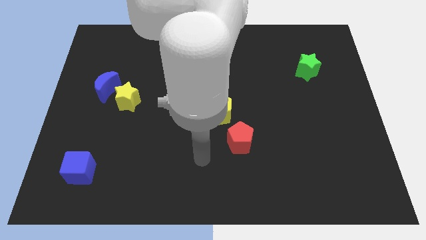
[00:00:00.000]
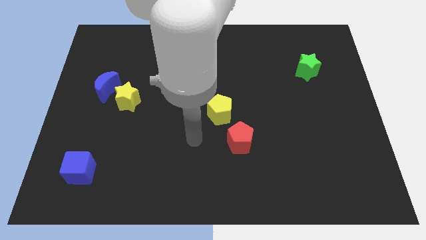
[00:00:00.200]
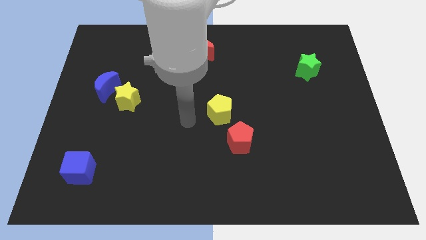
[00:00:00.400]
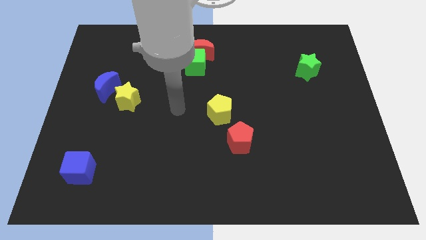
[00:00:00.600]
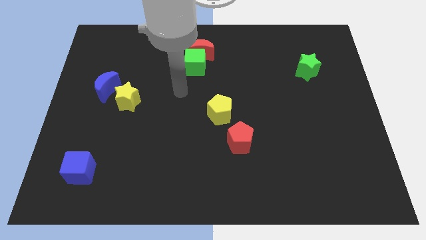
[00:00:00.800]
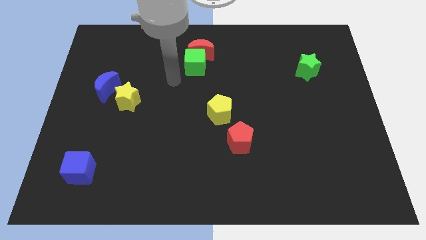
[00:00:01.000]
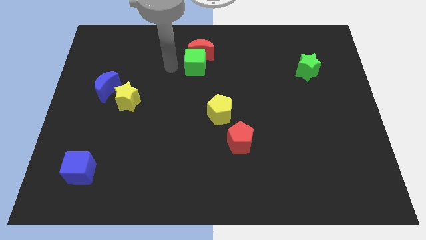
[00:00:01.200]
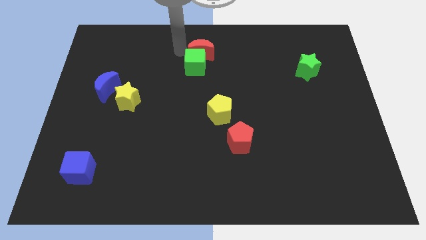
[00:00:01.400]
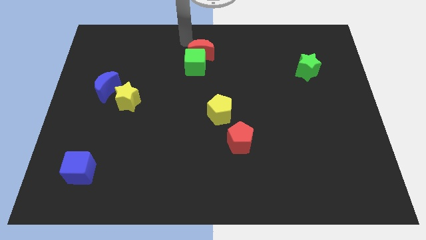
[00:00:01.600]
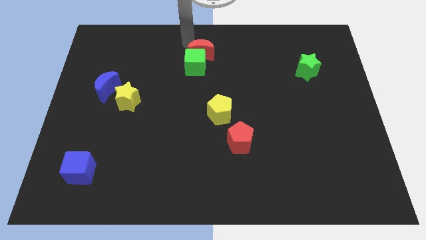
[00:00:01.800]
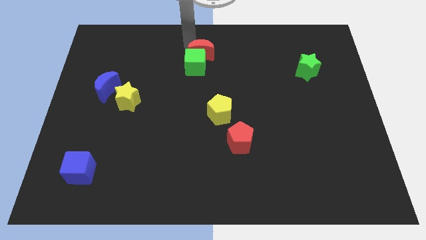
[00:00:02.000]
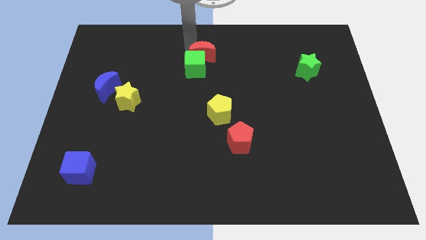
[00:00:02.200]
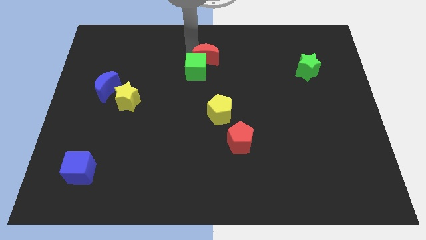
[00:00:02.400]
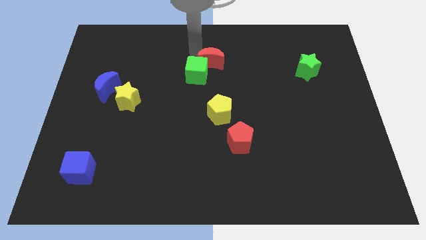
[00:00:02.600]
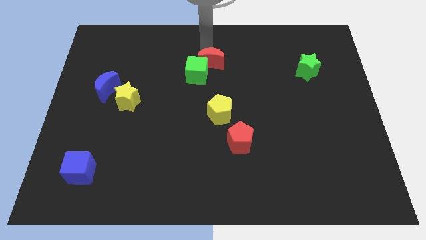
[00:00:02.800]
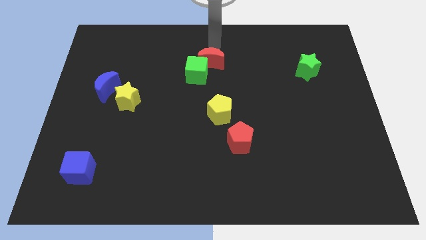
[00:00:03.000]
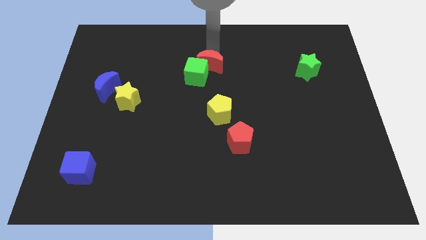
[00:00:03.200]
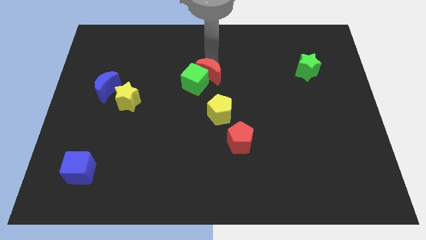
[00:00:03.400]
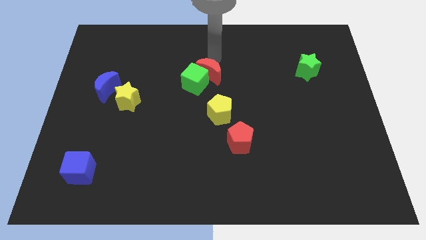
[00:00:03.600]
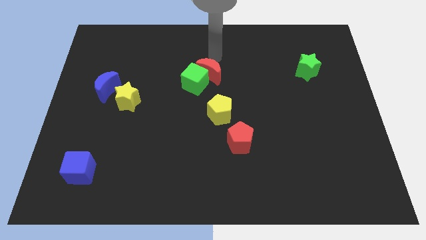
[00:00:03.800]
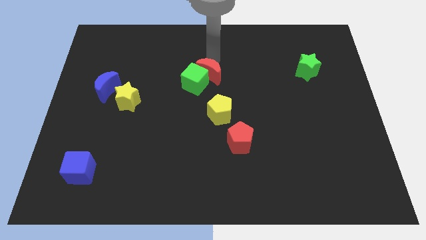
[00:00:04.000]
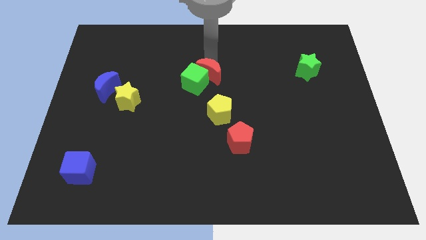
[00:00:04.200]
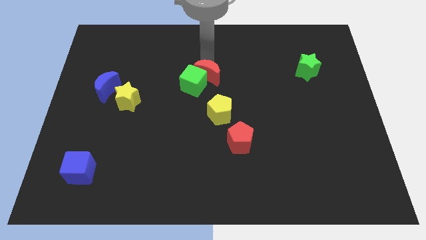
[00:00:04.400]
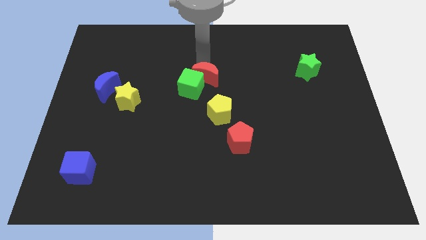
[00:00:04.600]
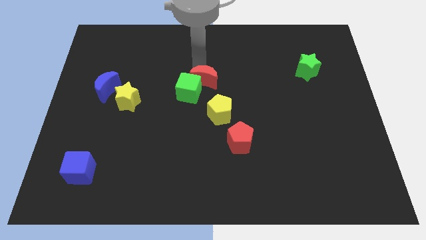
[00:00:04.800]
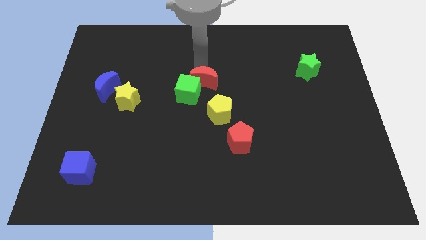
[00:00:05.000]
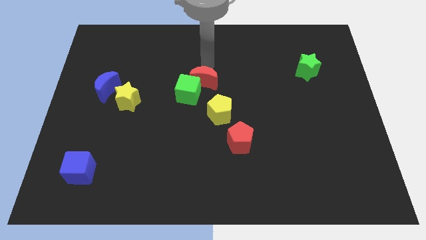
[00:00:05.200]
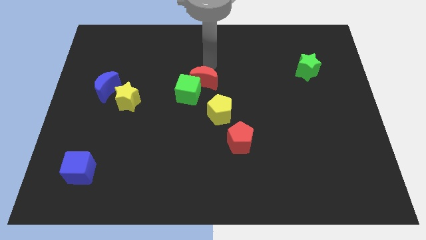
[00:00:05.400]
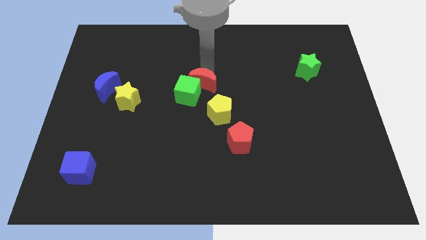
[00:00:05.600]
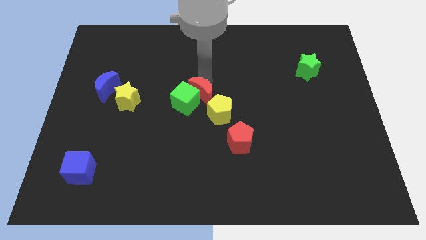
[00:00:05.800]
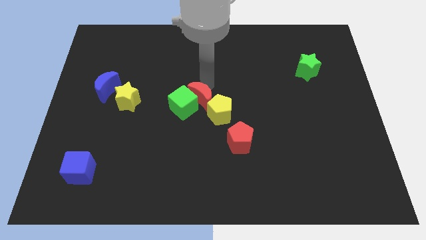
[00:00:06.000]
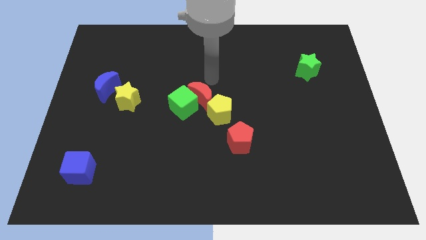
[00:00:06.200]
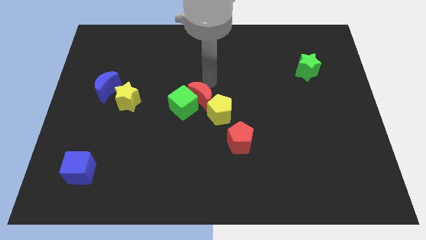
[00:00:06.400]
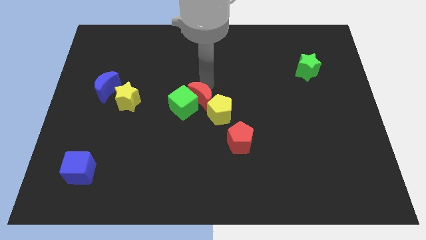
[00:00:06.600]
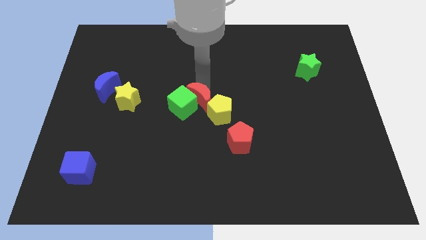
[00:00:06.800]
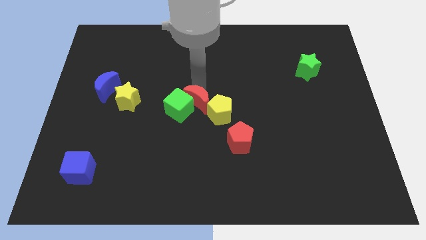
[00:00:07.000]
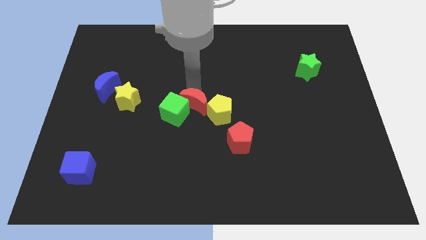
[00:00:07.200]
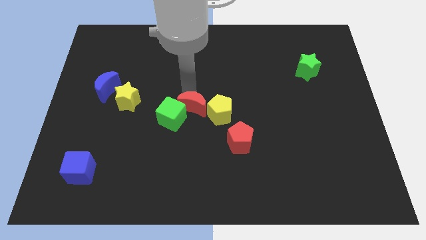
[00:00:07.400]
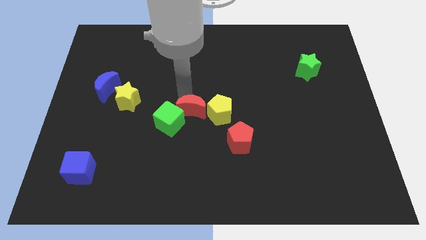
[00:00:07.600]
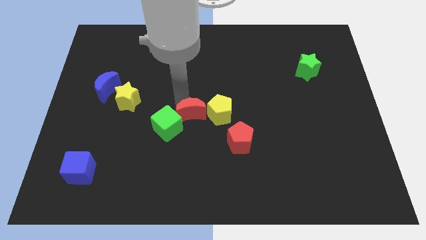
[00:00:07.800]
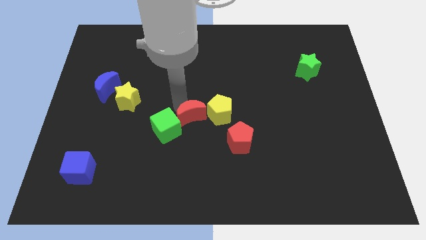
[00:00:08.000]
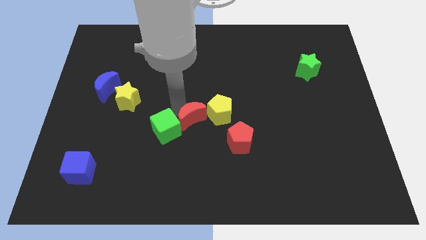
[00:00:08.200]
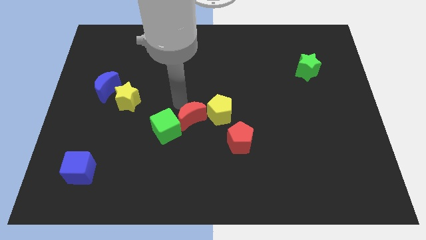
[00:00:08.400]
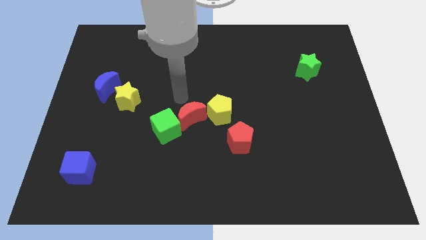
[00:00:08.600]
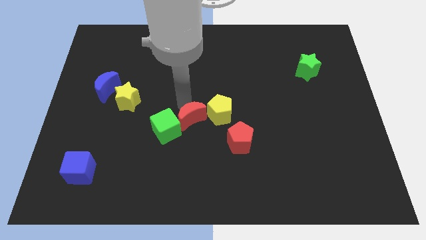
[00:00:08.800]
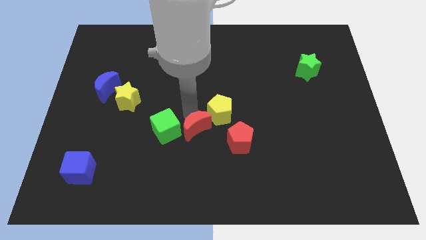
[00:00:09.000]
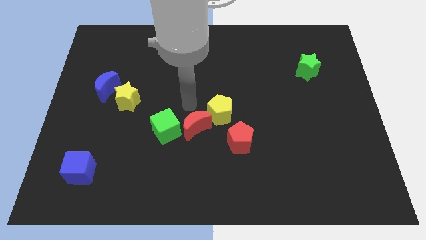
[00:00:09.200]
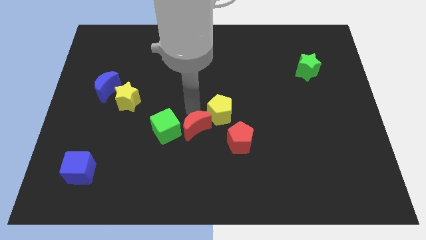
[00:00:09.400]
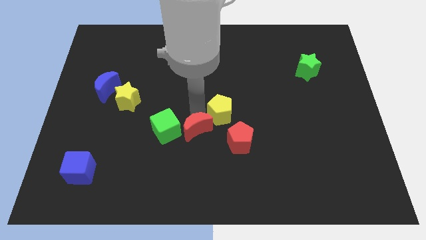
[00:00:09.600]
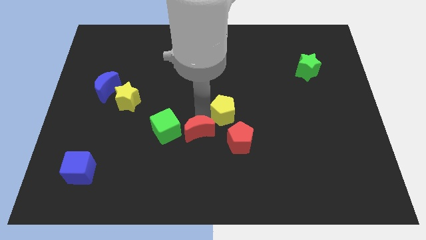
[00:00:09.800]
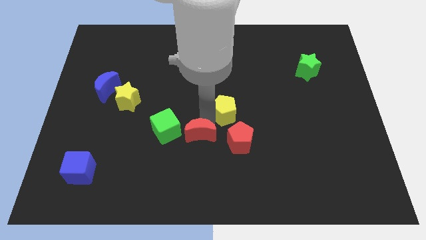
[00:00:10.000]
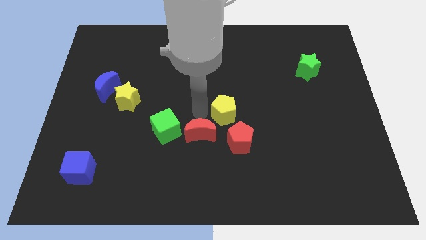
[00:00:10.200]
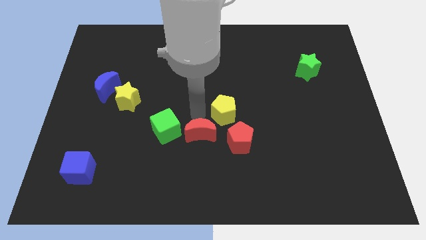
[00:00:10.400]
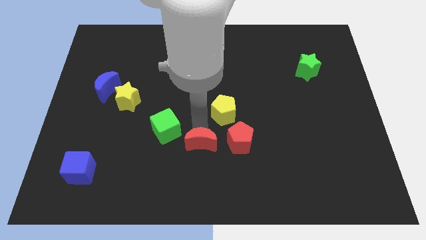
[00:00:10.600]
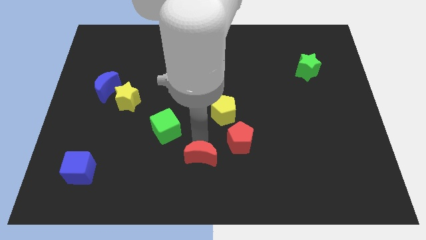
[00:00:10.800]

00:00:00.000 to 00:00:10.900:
put the red moon to the bottom side
